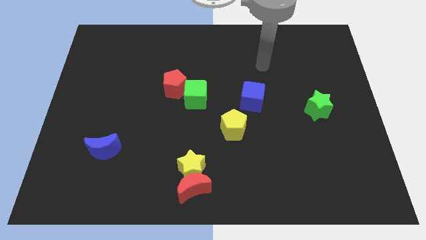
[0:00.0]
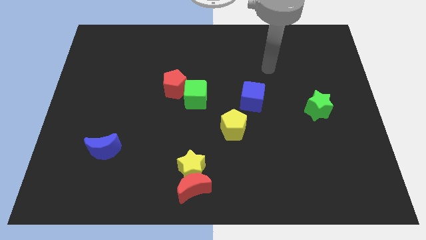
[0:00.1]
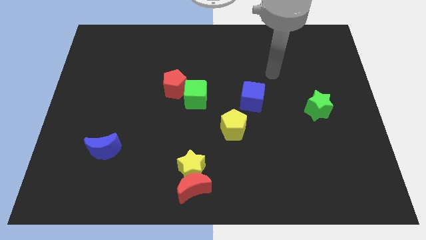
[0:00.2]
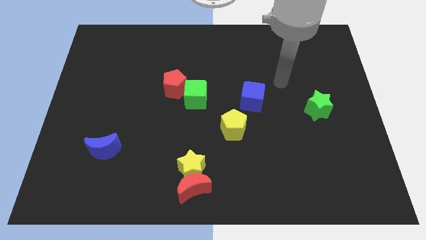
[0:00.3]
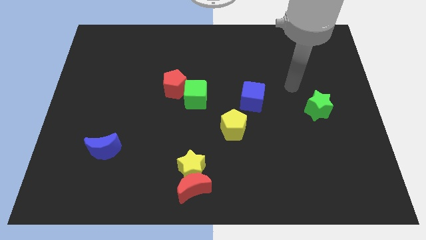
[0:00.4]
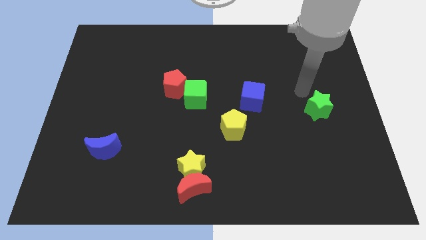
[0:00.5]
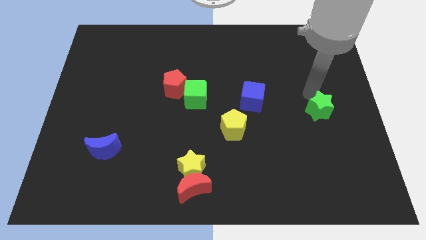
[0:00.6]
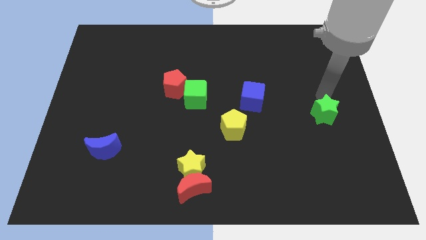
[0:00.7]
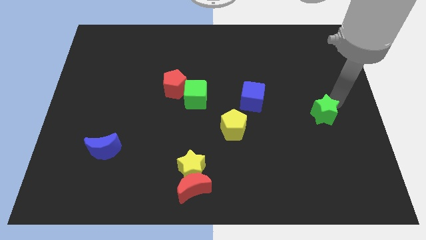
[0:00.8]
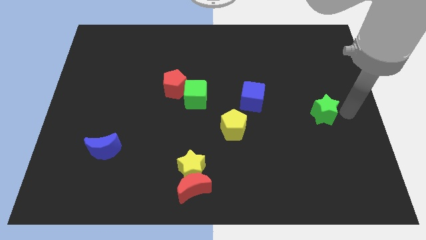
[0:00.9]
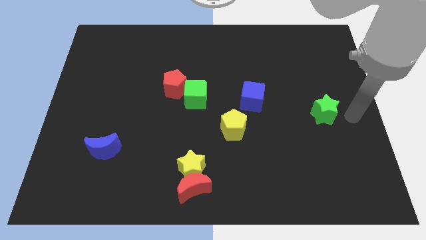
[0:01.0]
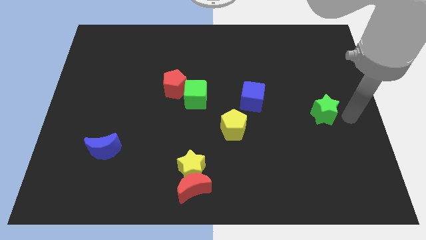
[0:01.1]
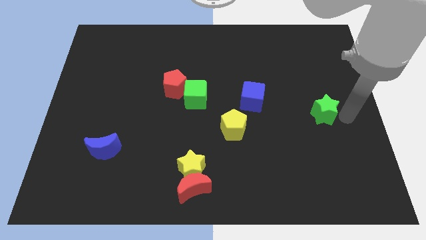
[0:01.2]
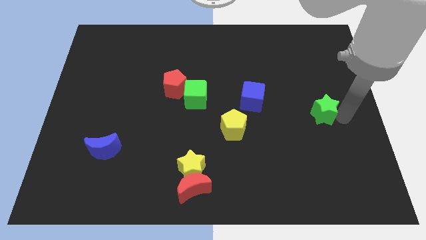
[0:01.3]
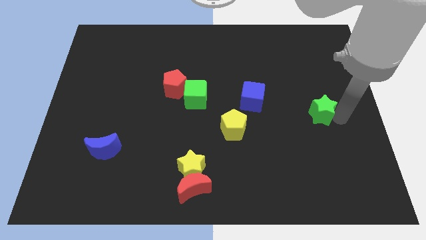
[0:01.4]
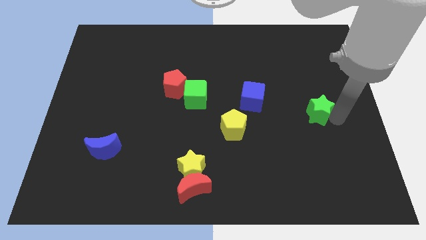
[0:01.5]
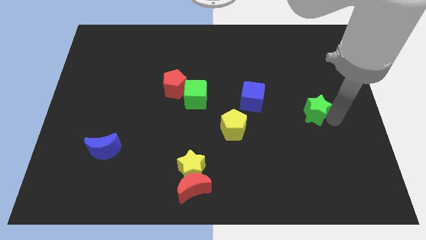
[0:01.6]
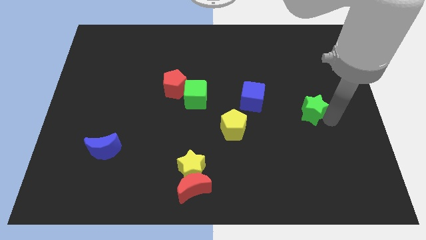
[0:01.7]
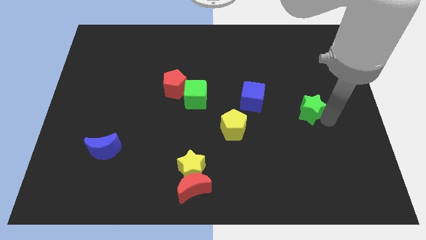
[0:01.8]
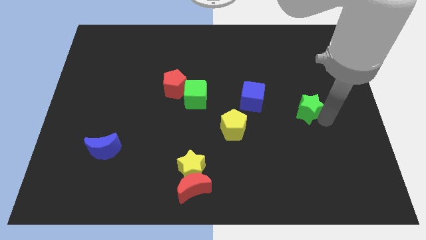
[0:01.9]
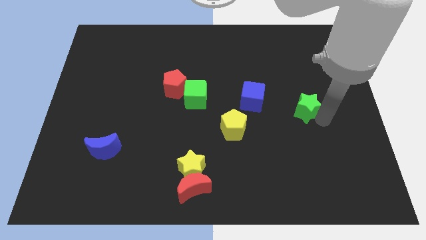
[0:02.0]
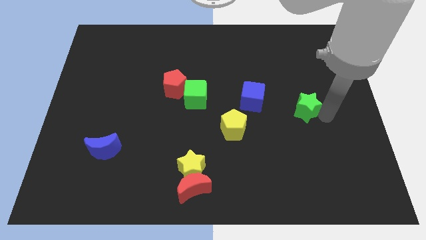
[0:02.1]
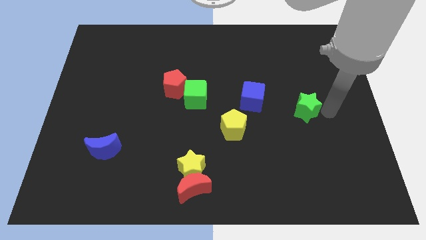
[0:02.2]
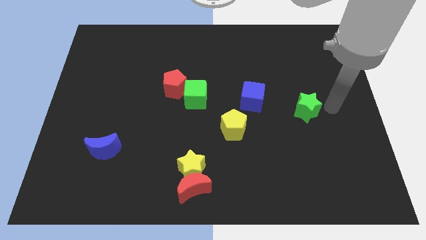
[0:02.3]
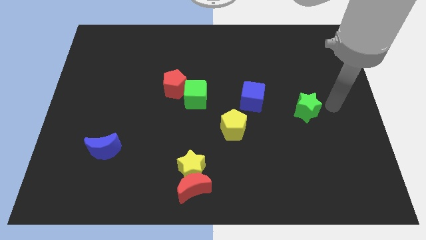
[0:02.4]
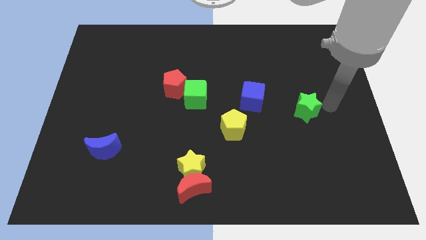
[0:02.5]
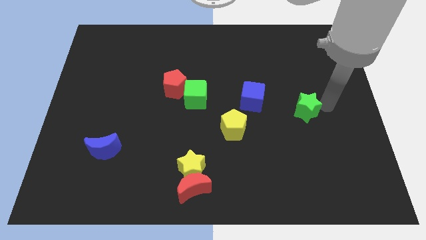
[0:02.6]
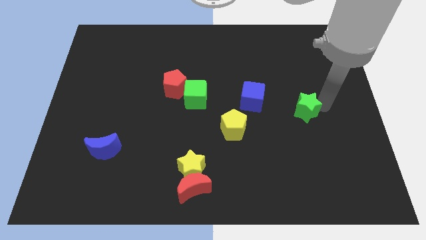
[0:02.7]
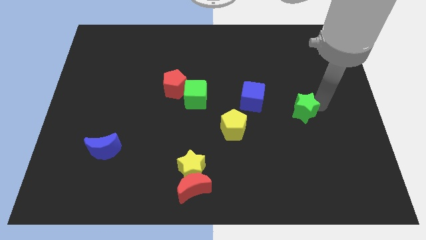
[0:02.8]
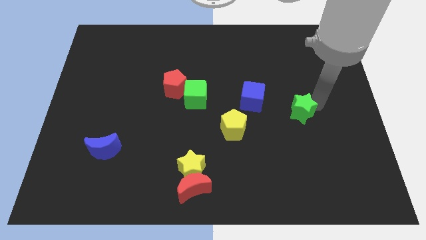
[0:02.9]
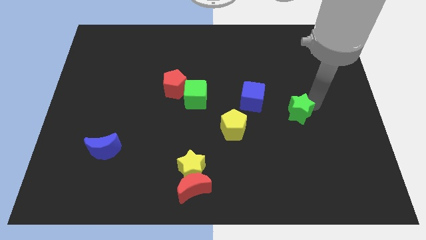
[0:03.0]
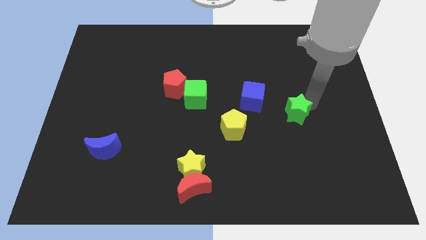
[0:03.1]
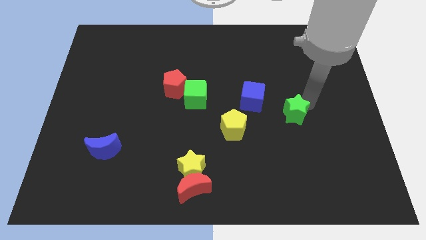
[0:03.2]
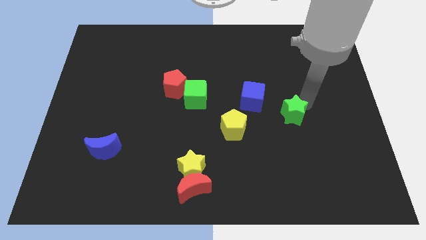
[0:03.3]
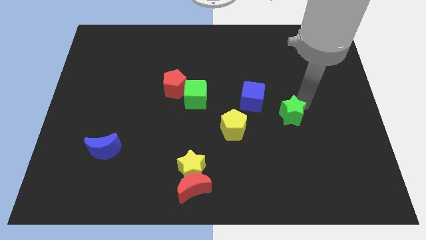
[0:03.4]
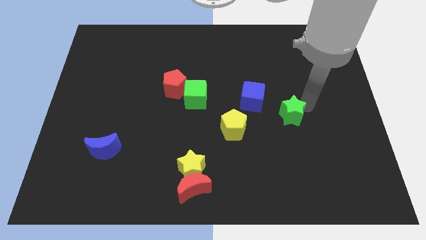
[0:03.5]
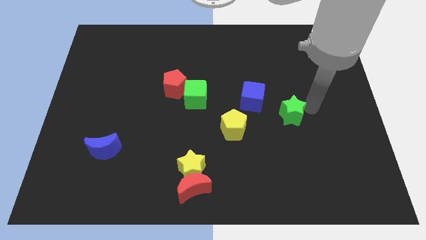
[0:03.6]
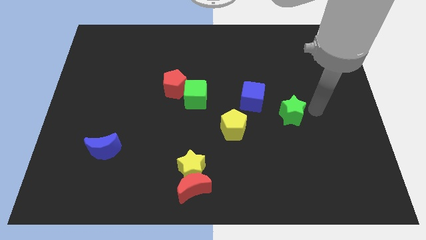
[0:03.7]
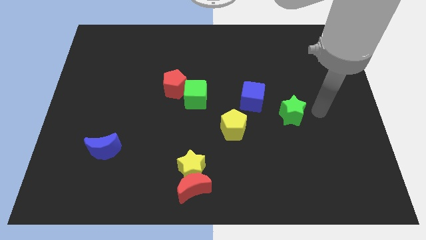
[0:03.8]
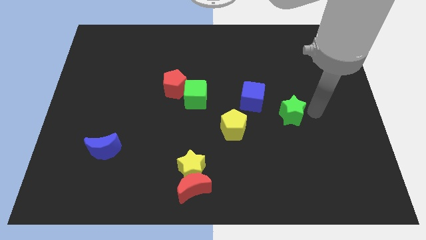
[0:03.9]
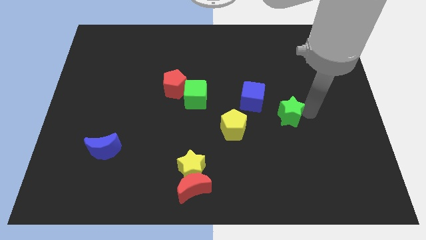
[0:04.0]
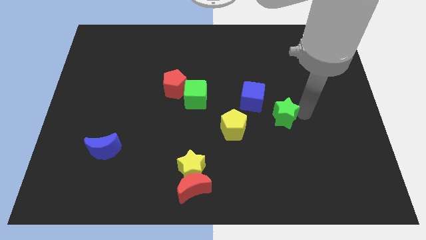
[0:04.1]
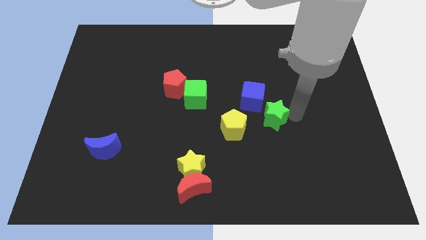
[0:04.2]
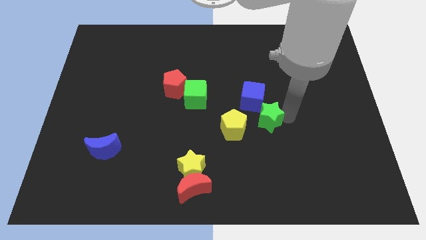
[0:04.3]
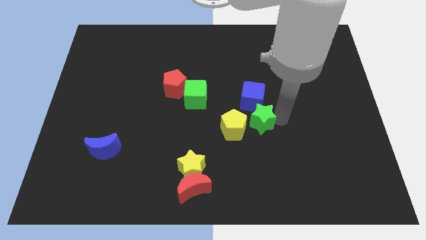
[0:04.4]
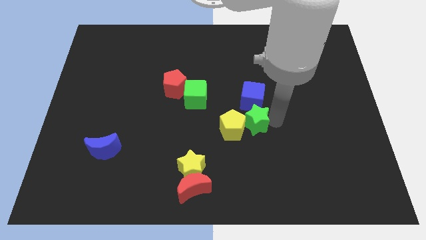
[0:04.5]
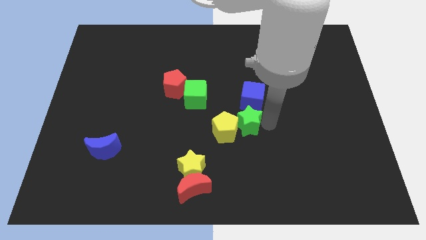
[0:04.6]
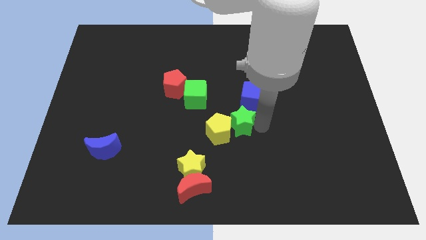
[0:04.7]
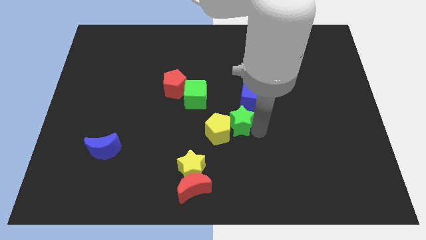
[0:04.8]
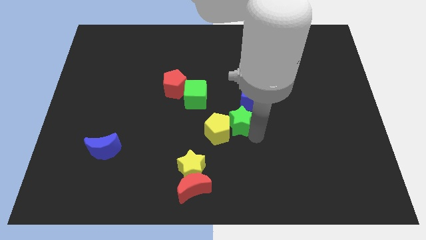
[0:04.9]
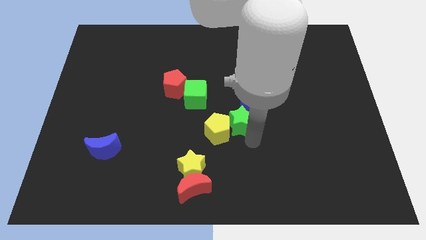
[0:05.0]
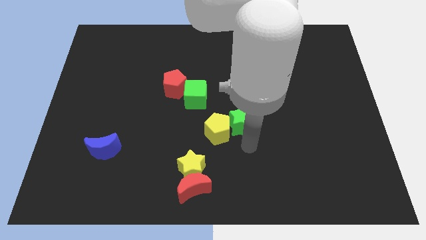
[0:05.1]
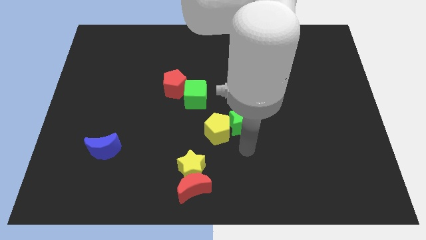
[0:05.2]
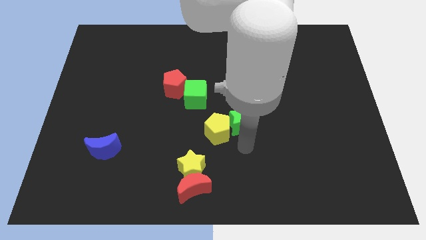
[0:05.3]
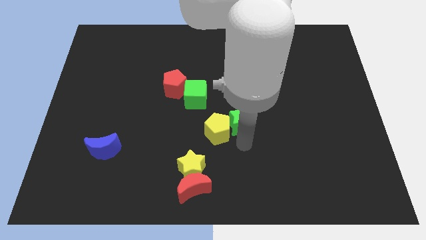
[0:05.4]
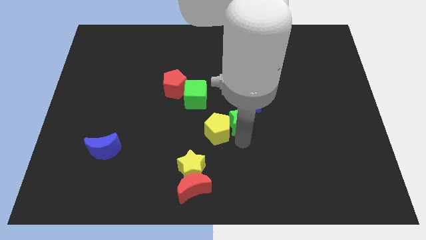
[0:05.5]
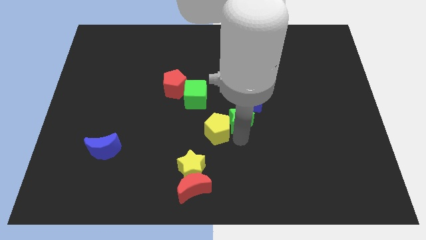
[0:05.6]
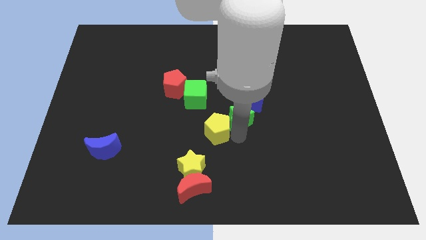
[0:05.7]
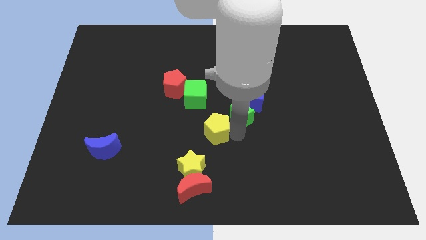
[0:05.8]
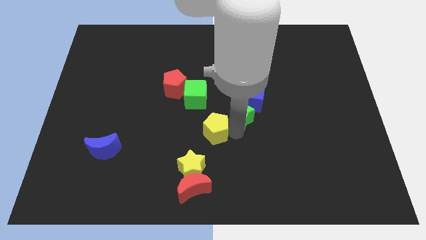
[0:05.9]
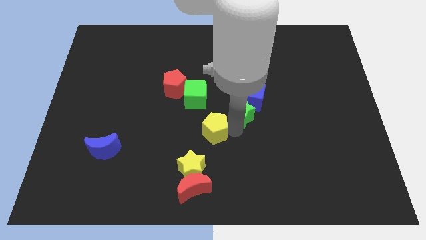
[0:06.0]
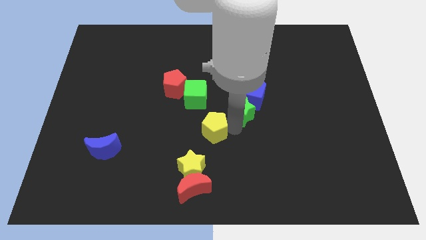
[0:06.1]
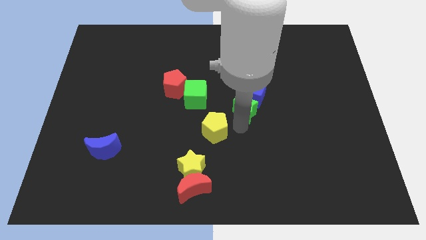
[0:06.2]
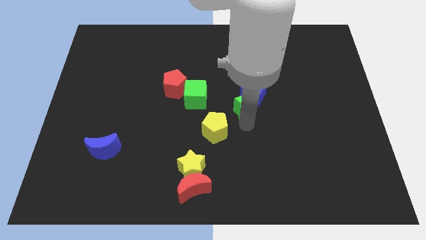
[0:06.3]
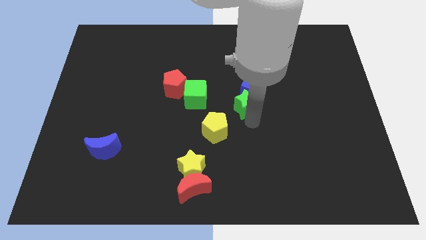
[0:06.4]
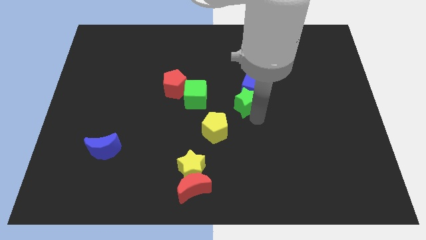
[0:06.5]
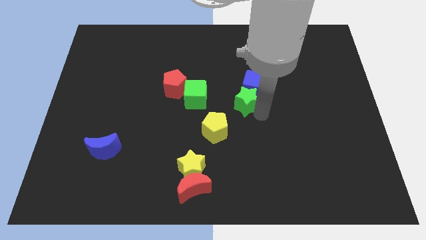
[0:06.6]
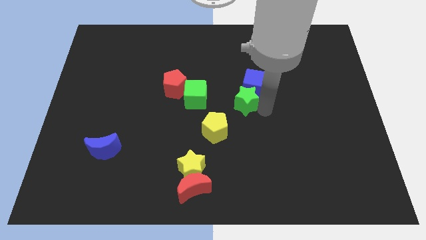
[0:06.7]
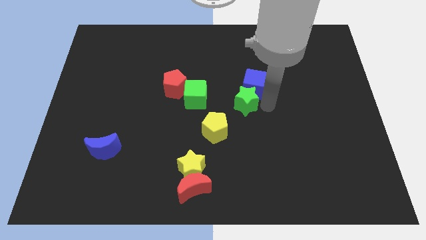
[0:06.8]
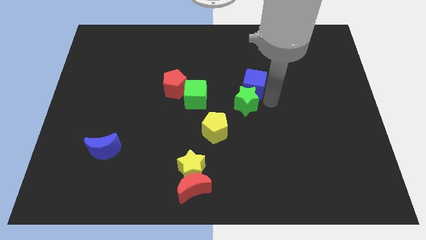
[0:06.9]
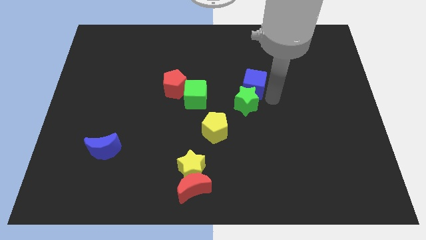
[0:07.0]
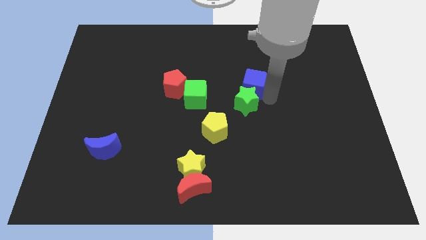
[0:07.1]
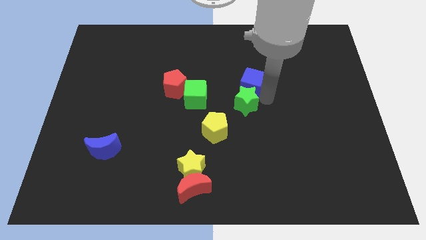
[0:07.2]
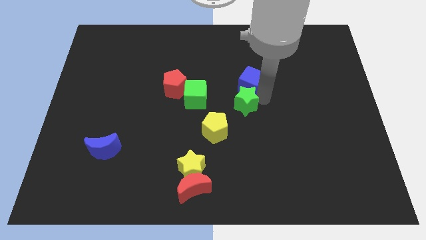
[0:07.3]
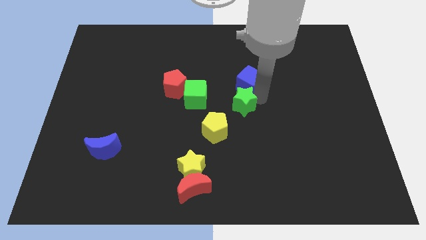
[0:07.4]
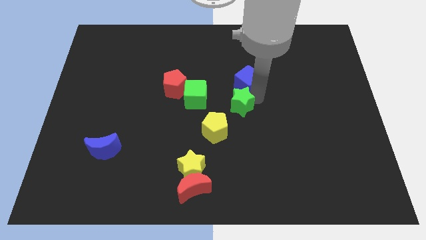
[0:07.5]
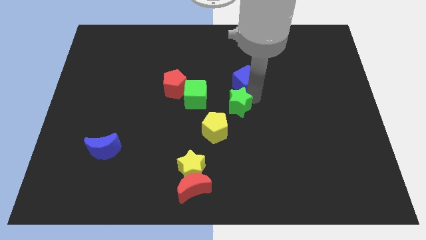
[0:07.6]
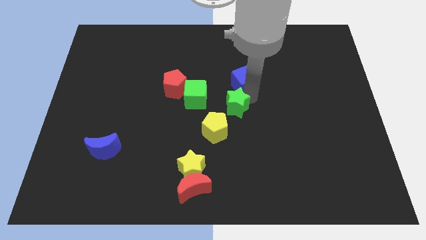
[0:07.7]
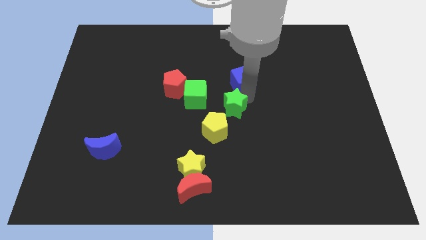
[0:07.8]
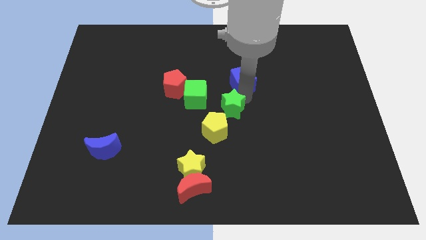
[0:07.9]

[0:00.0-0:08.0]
push the green star left
